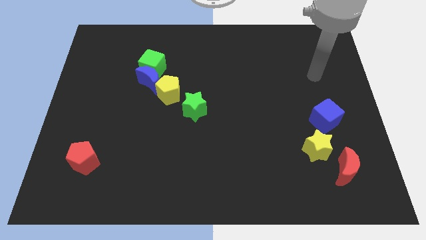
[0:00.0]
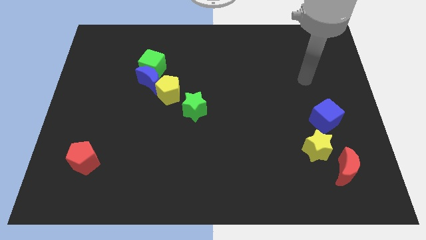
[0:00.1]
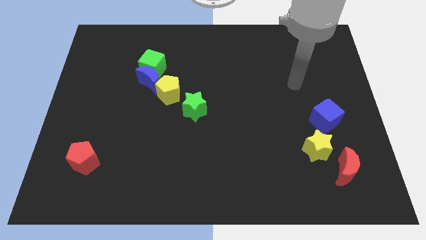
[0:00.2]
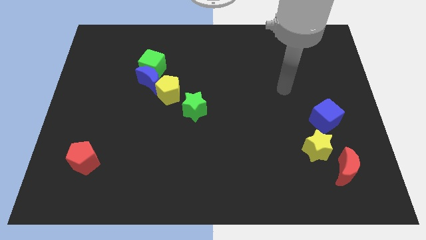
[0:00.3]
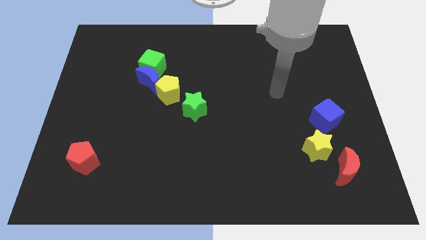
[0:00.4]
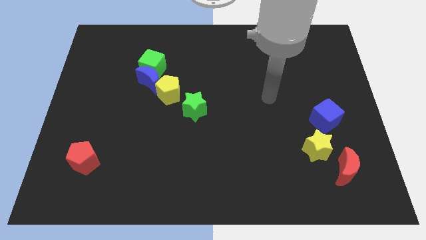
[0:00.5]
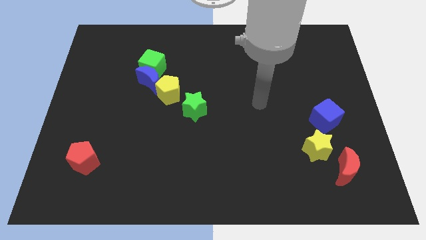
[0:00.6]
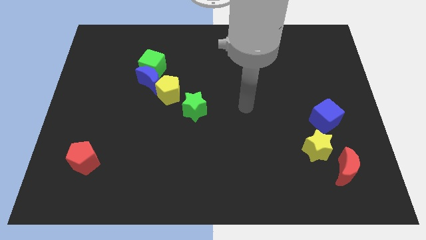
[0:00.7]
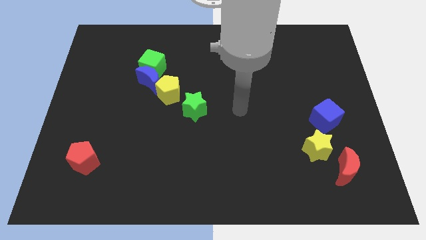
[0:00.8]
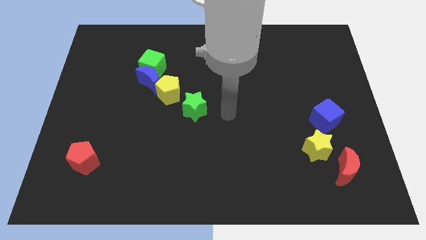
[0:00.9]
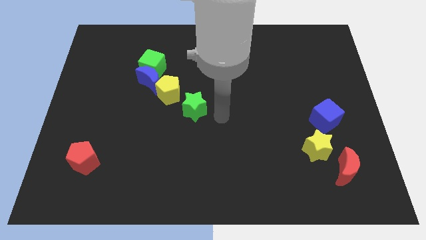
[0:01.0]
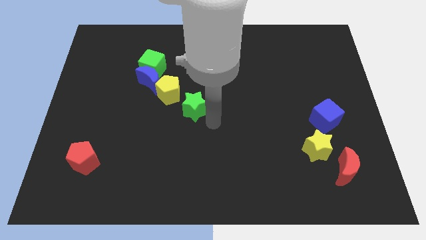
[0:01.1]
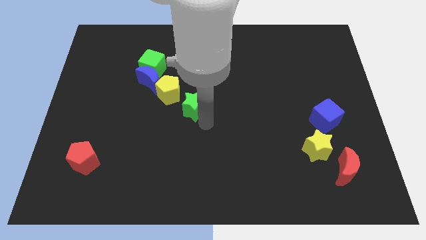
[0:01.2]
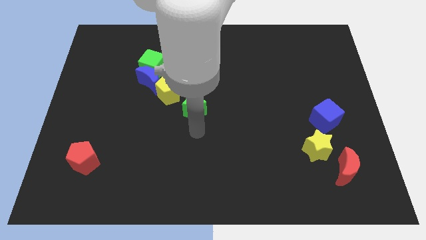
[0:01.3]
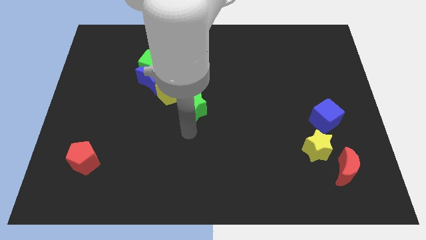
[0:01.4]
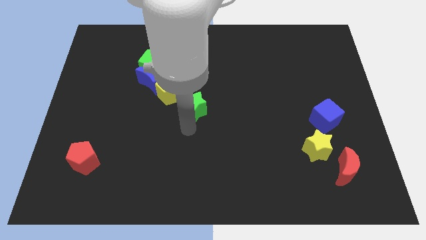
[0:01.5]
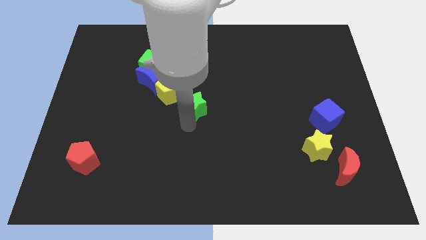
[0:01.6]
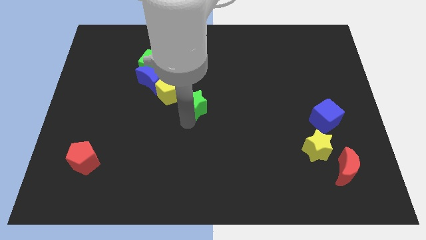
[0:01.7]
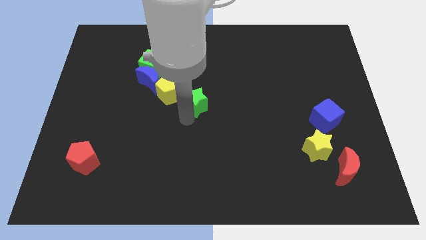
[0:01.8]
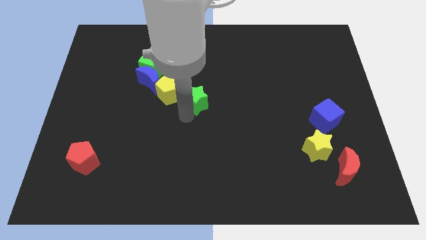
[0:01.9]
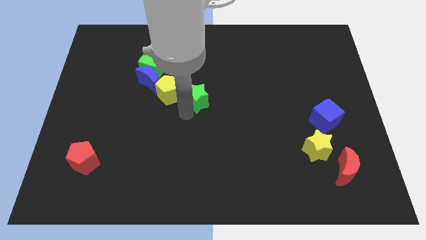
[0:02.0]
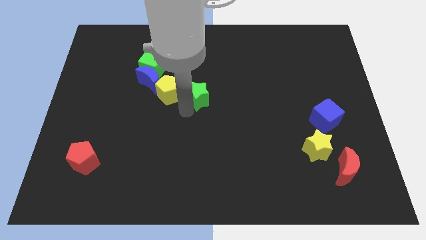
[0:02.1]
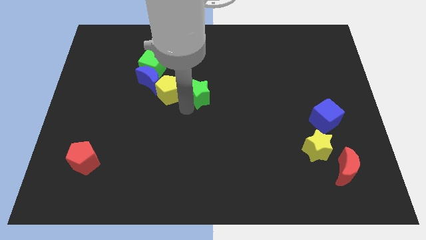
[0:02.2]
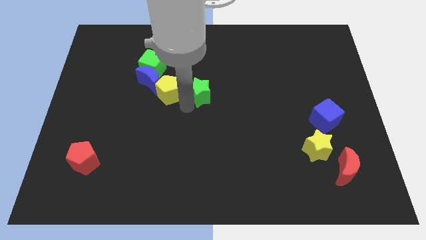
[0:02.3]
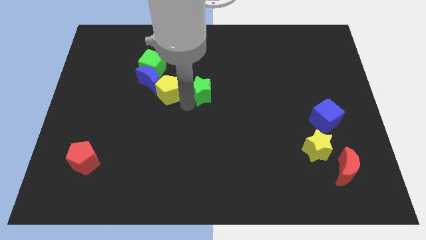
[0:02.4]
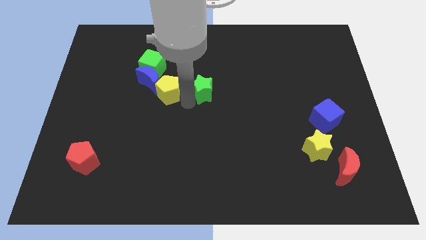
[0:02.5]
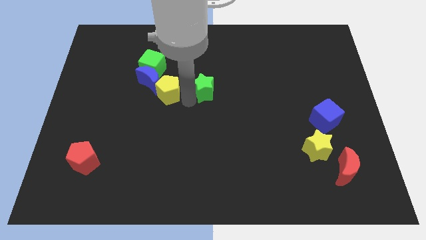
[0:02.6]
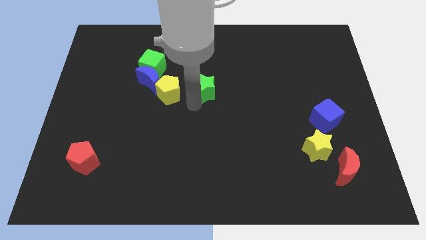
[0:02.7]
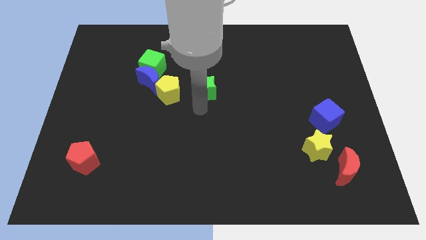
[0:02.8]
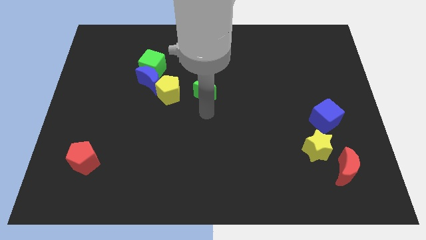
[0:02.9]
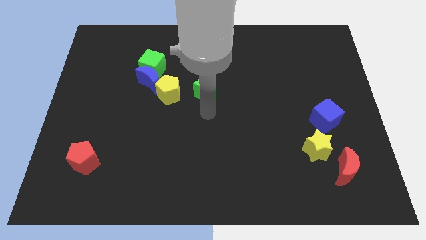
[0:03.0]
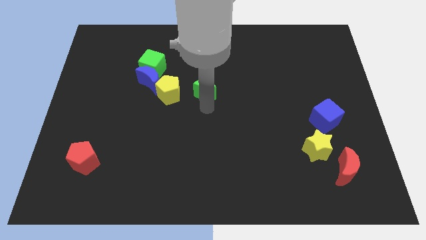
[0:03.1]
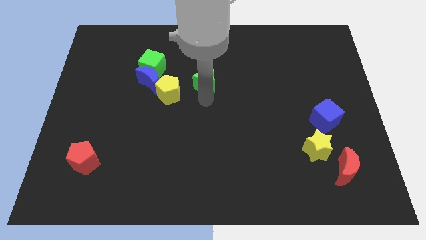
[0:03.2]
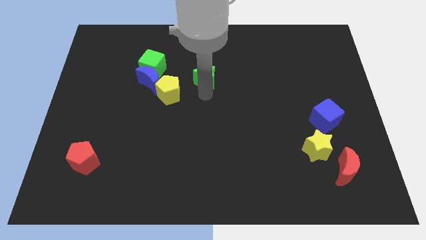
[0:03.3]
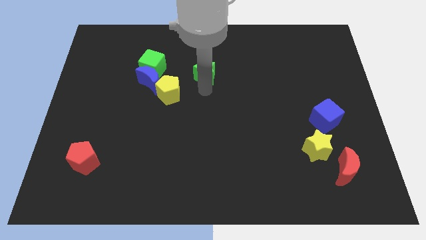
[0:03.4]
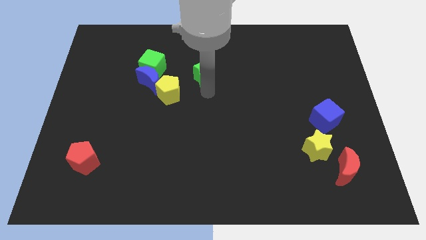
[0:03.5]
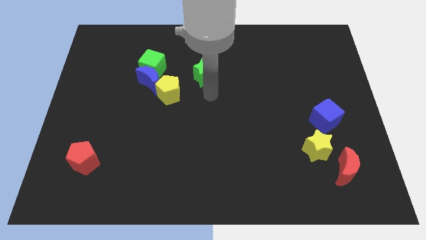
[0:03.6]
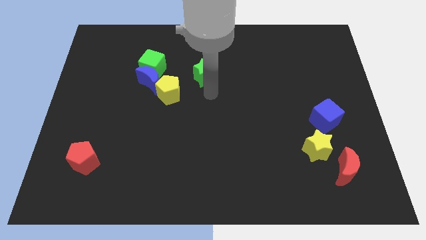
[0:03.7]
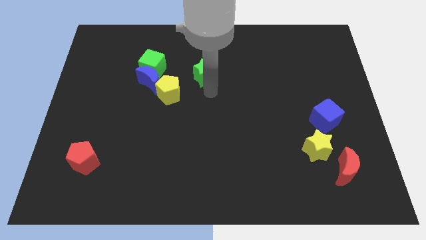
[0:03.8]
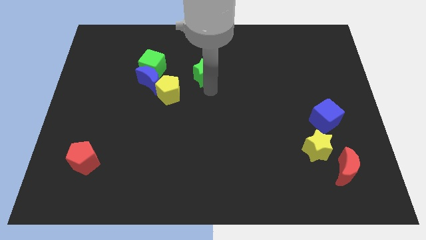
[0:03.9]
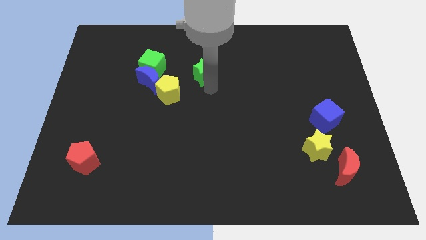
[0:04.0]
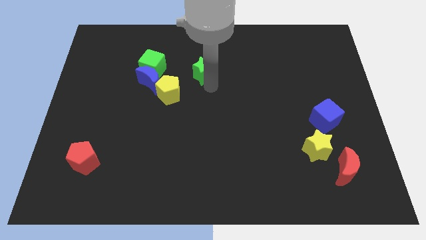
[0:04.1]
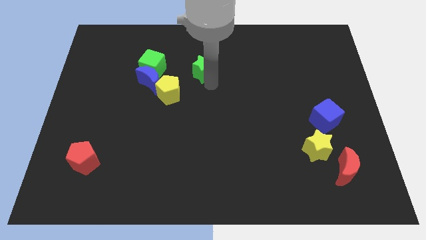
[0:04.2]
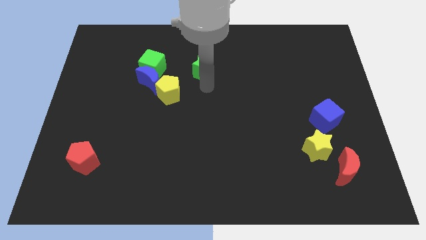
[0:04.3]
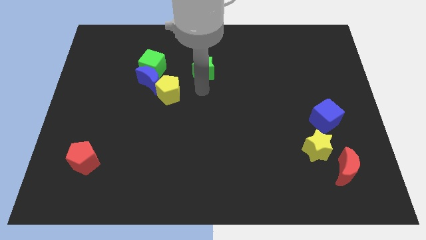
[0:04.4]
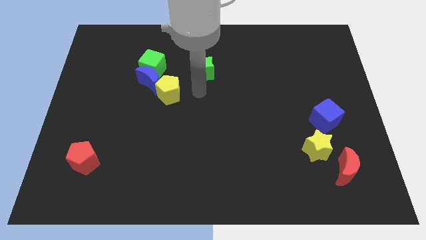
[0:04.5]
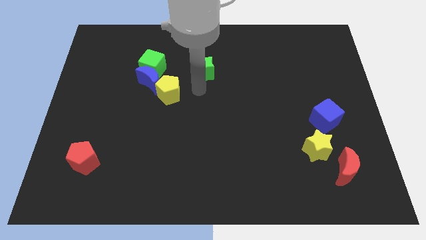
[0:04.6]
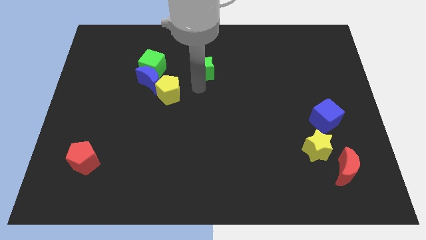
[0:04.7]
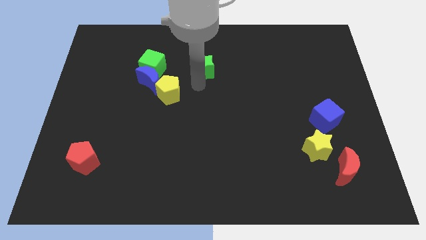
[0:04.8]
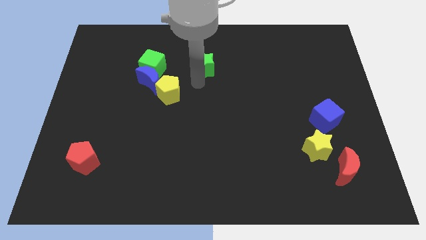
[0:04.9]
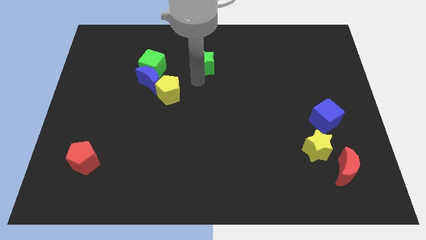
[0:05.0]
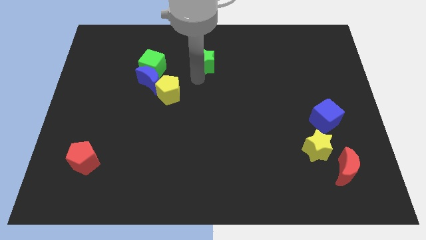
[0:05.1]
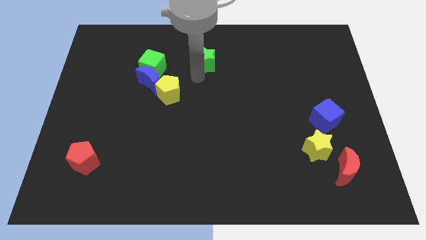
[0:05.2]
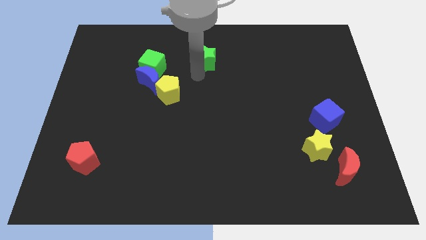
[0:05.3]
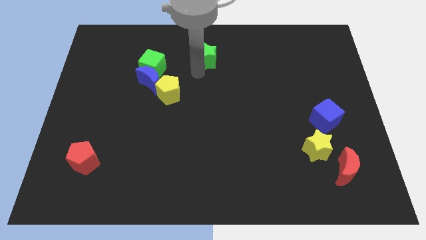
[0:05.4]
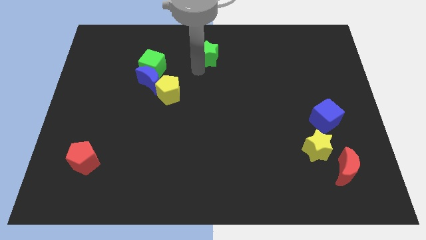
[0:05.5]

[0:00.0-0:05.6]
move the green star to the towards your base

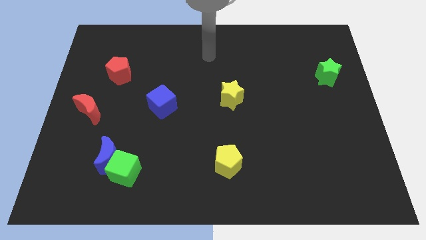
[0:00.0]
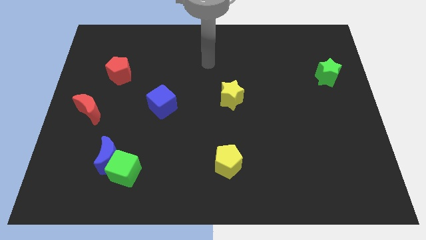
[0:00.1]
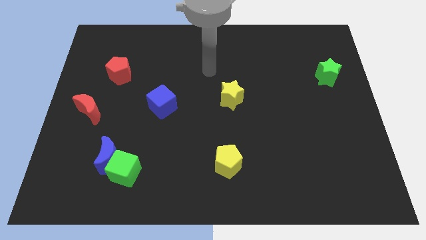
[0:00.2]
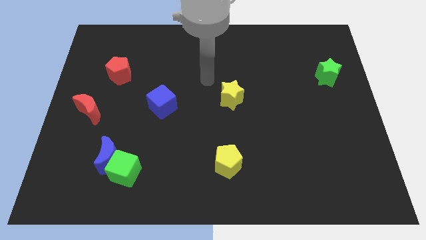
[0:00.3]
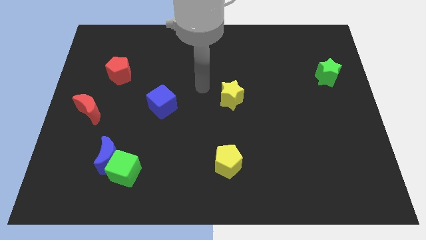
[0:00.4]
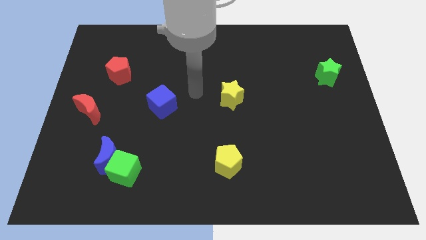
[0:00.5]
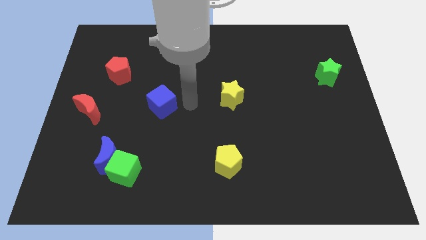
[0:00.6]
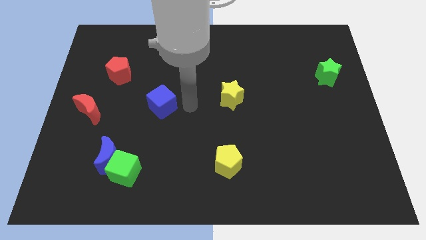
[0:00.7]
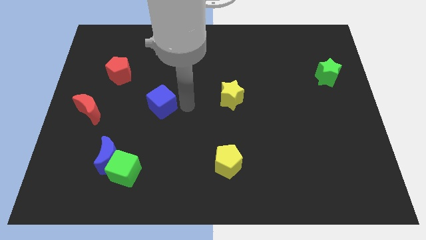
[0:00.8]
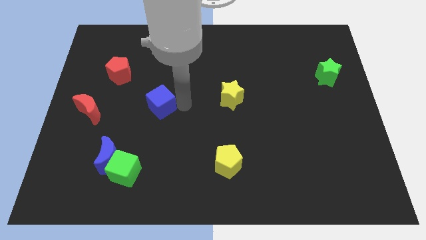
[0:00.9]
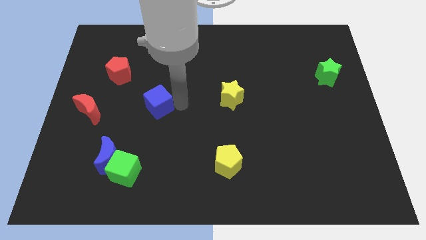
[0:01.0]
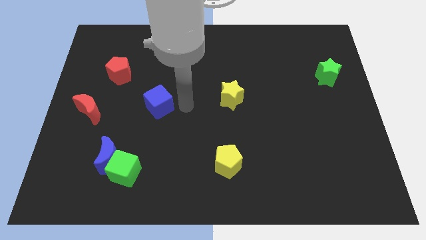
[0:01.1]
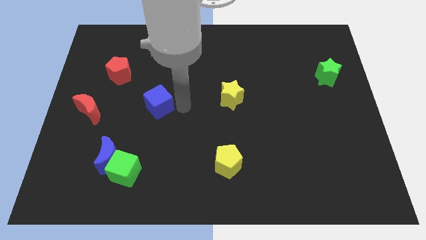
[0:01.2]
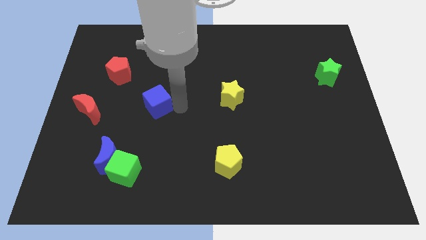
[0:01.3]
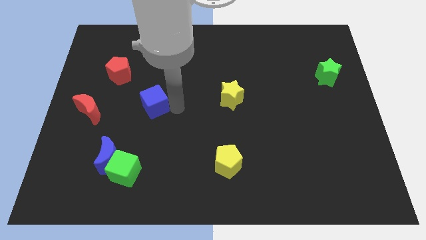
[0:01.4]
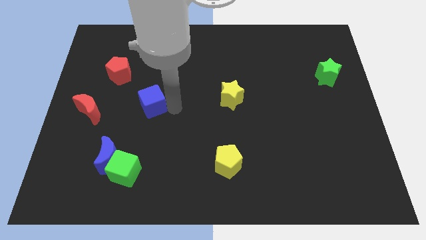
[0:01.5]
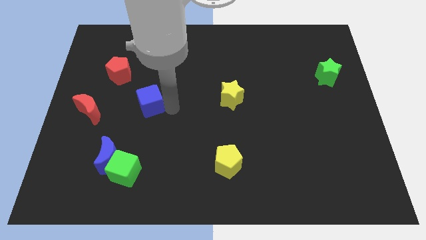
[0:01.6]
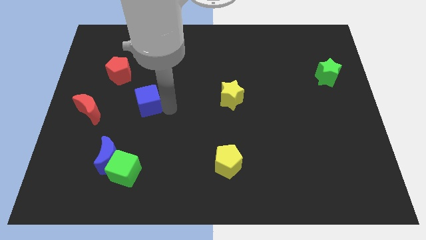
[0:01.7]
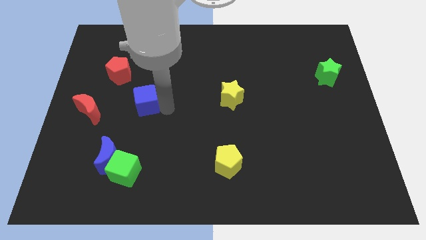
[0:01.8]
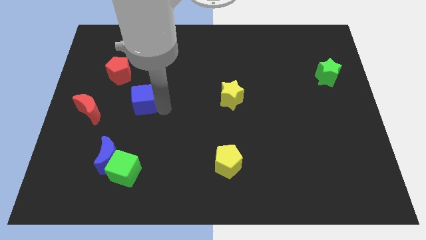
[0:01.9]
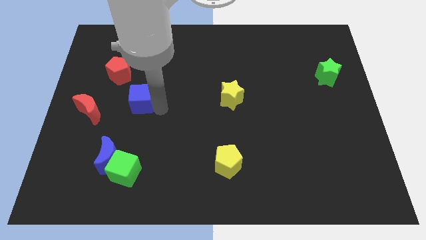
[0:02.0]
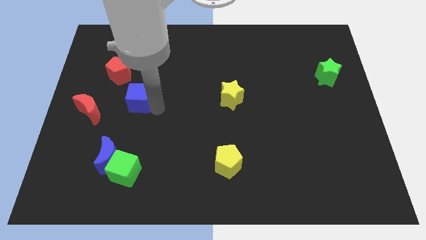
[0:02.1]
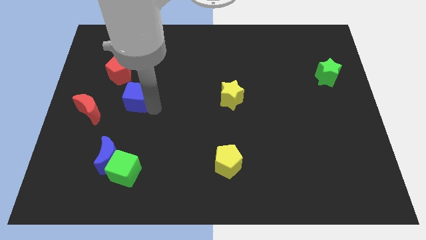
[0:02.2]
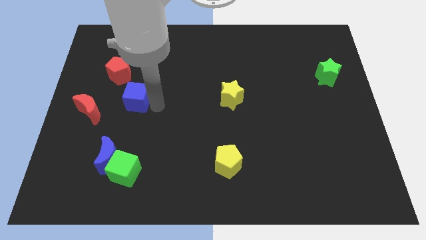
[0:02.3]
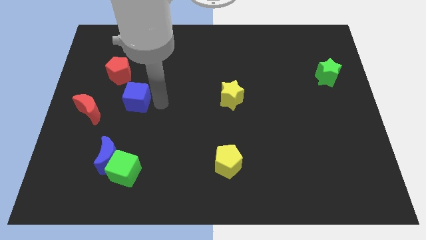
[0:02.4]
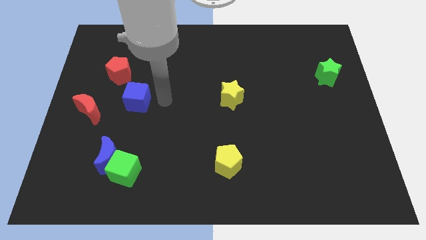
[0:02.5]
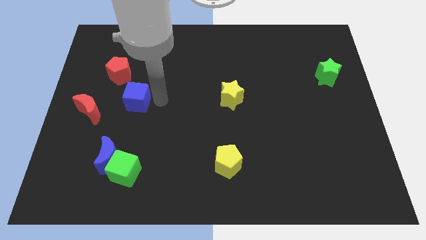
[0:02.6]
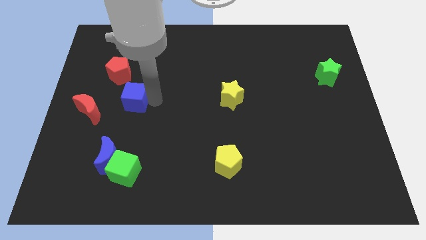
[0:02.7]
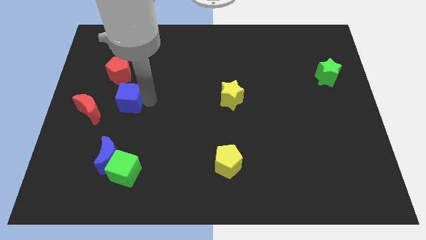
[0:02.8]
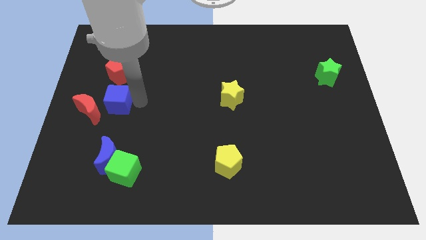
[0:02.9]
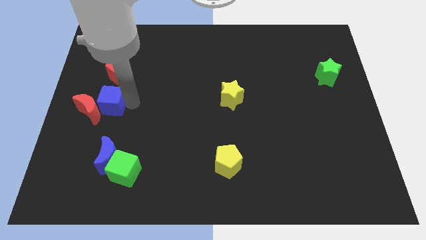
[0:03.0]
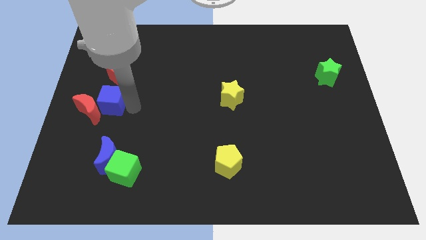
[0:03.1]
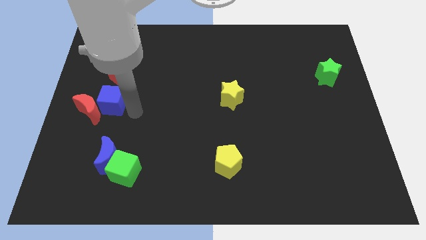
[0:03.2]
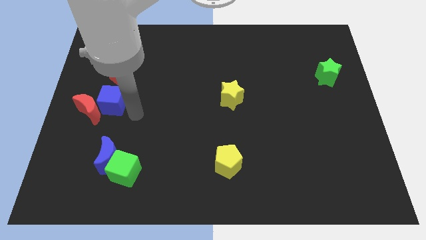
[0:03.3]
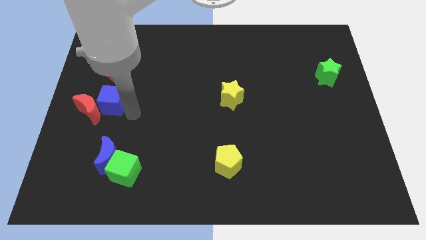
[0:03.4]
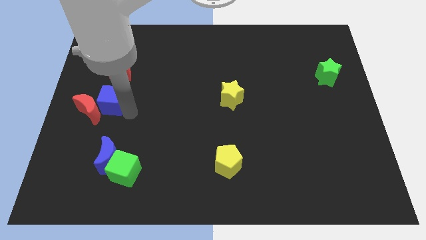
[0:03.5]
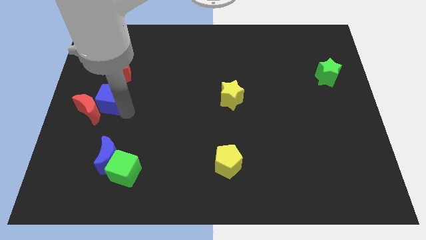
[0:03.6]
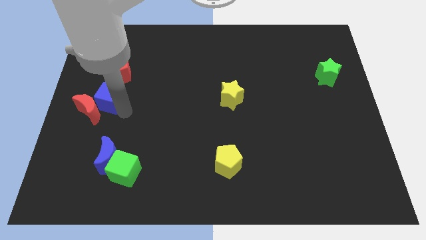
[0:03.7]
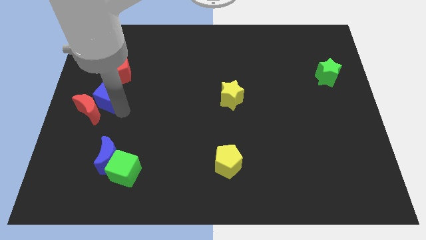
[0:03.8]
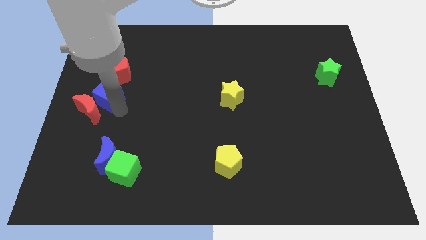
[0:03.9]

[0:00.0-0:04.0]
slide the blue cube to the left side of the board
